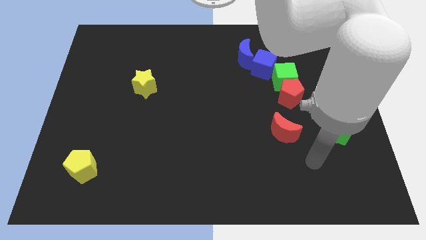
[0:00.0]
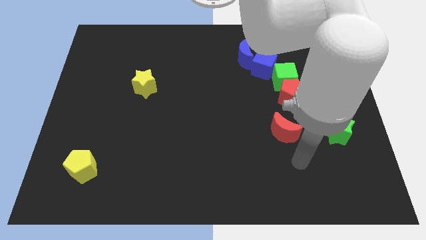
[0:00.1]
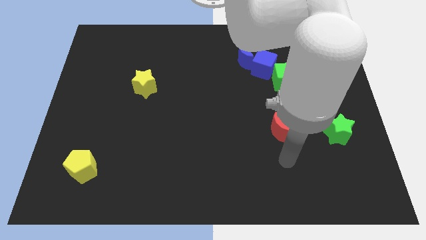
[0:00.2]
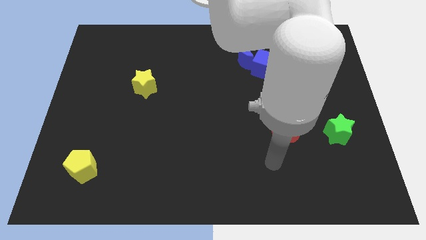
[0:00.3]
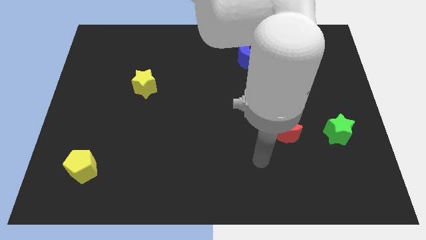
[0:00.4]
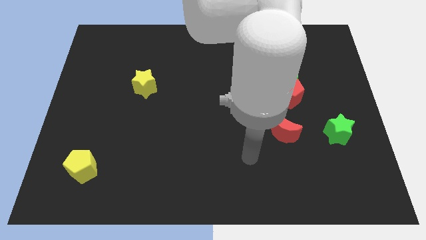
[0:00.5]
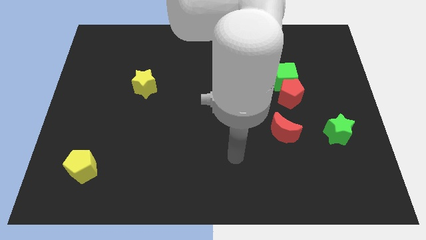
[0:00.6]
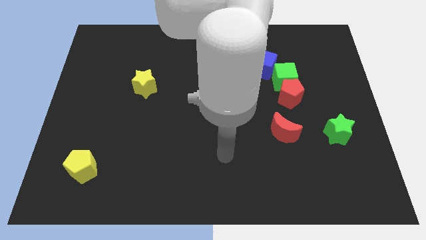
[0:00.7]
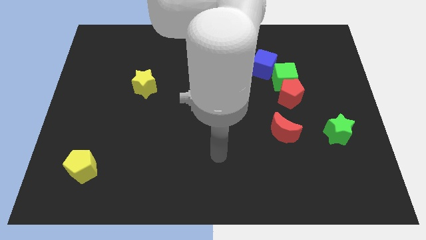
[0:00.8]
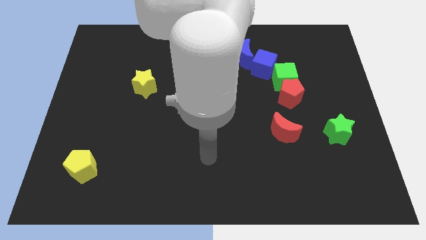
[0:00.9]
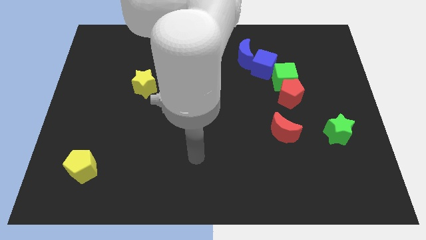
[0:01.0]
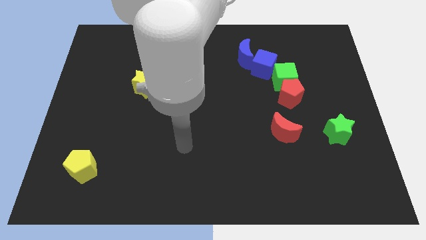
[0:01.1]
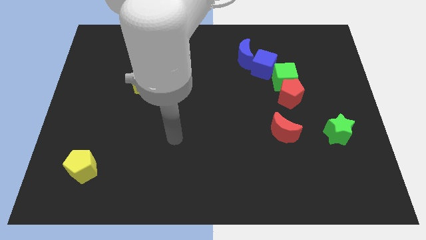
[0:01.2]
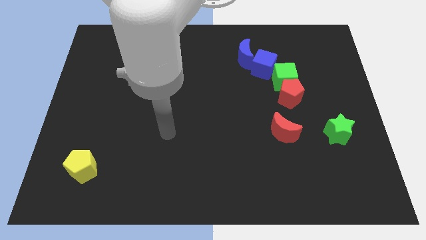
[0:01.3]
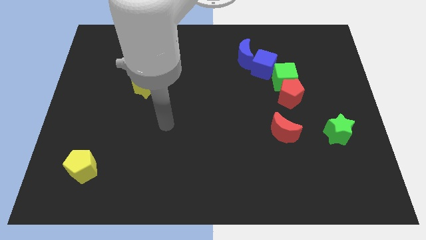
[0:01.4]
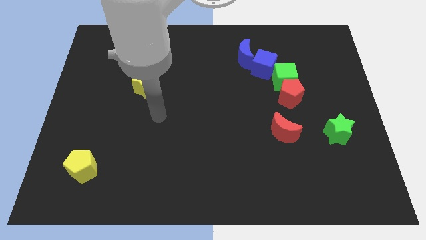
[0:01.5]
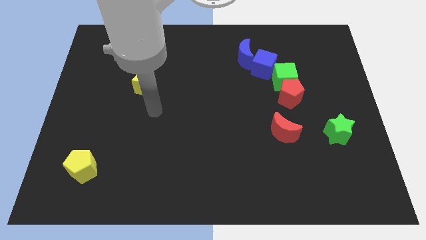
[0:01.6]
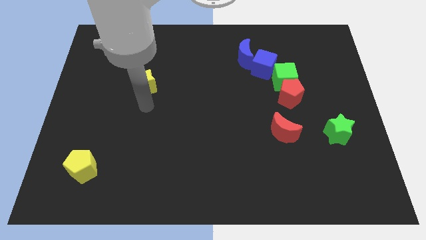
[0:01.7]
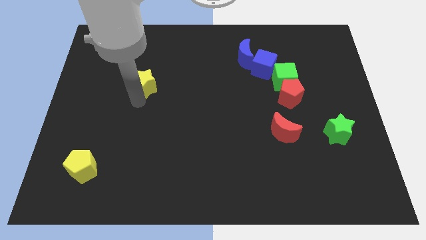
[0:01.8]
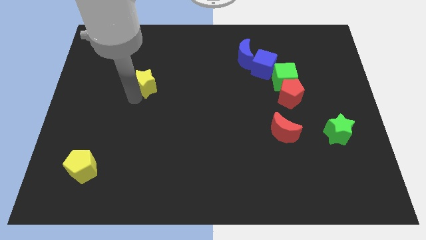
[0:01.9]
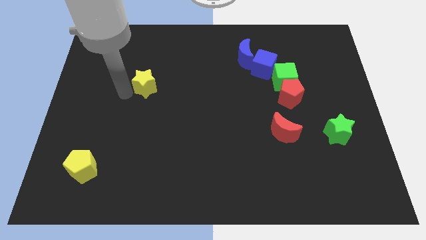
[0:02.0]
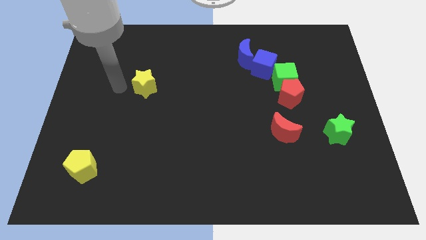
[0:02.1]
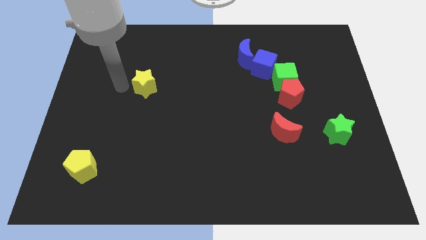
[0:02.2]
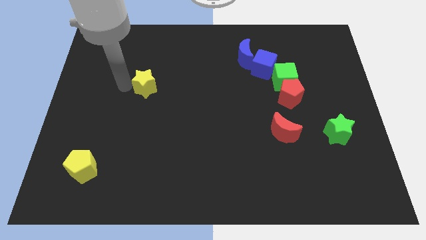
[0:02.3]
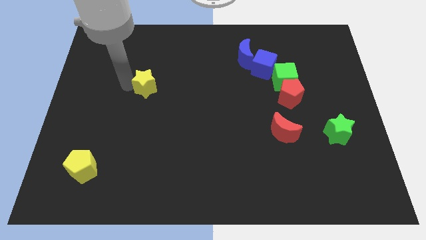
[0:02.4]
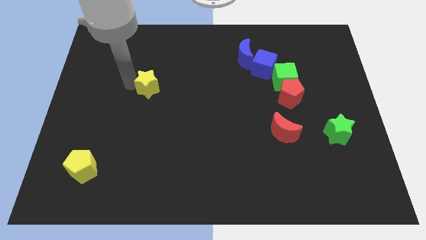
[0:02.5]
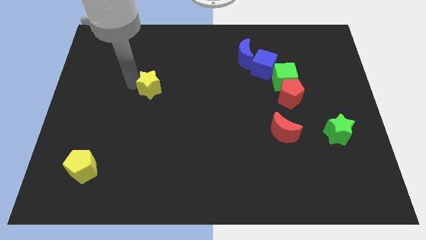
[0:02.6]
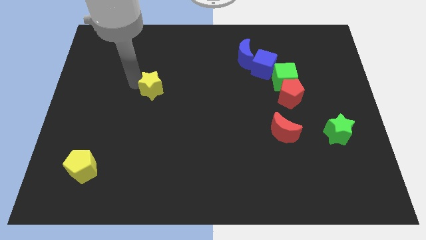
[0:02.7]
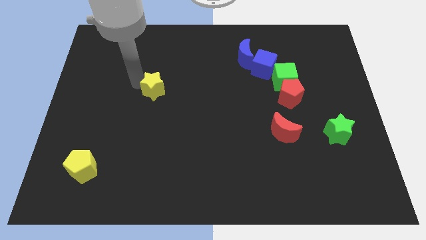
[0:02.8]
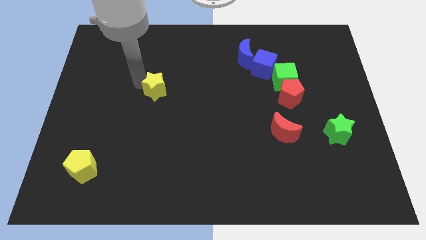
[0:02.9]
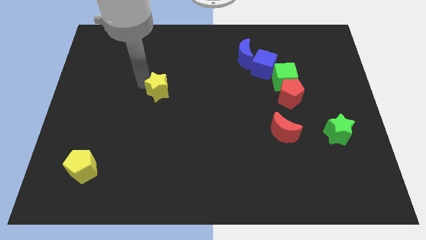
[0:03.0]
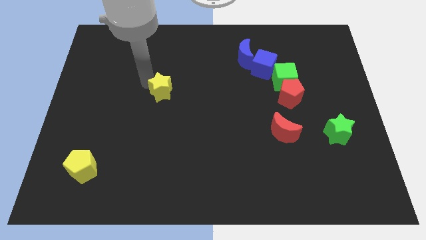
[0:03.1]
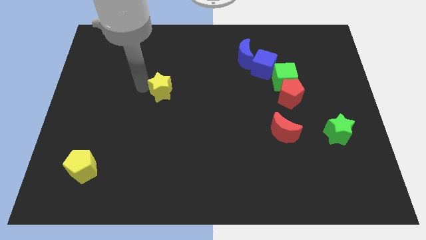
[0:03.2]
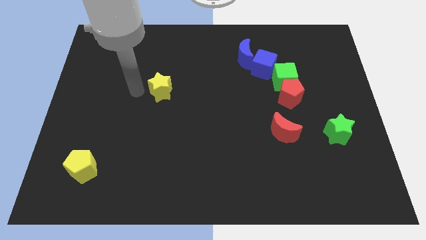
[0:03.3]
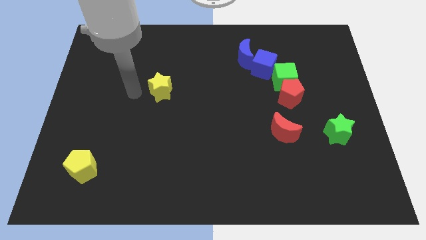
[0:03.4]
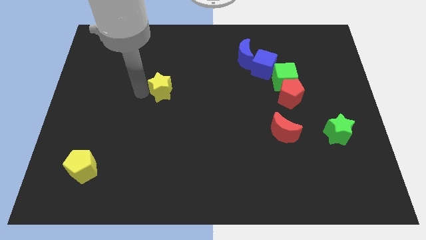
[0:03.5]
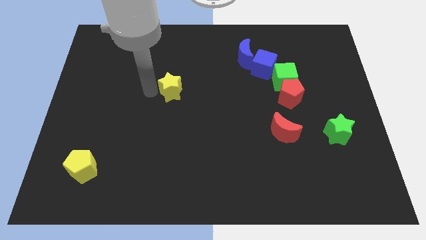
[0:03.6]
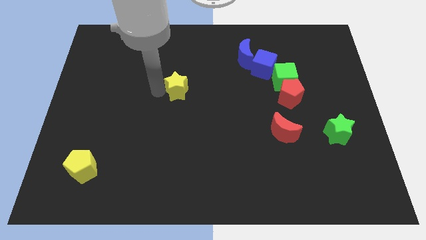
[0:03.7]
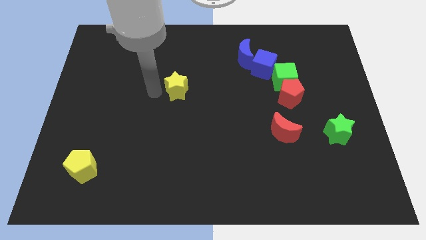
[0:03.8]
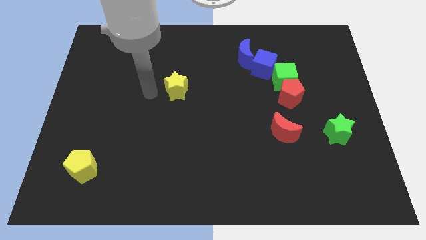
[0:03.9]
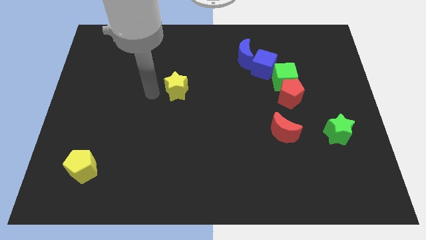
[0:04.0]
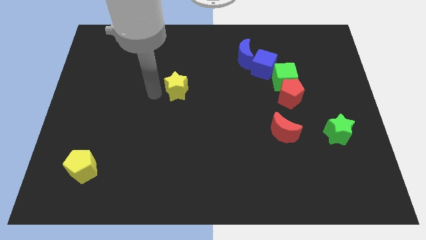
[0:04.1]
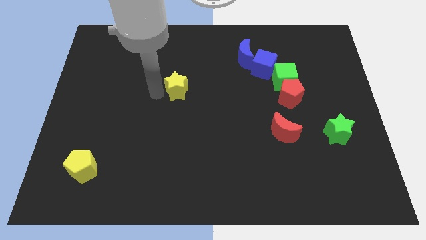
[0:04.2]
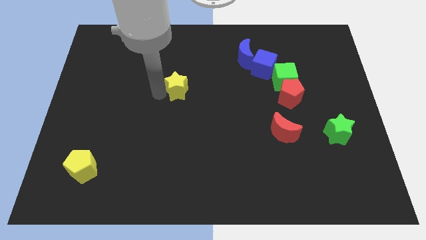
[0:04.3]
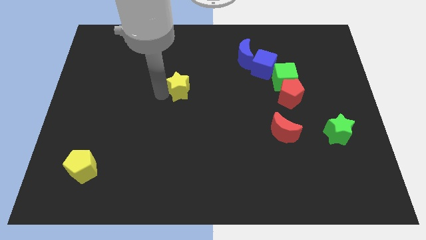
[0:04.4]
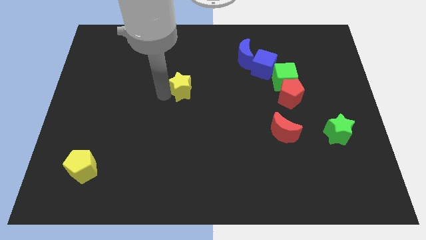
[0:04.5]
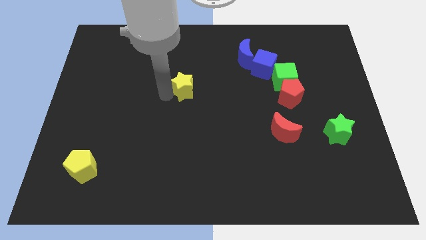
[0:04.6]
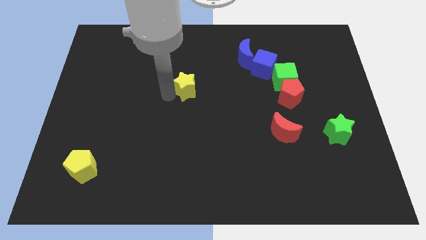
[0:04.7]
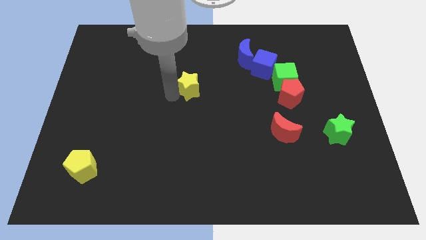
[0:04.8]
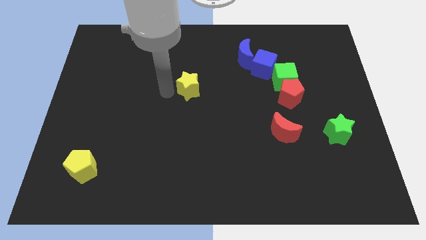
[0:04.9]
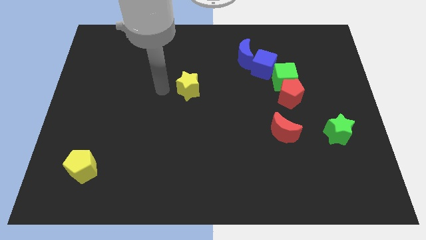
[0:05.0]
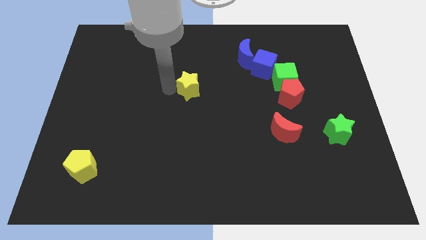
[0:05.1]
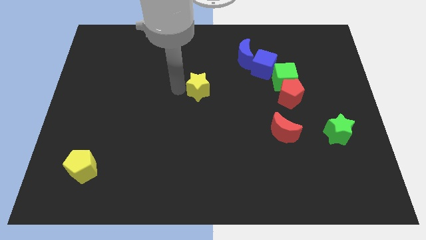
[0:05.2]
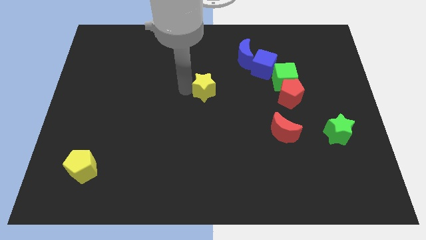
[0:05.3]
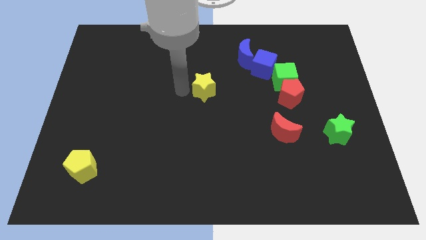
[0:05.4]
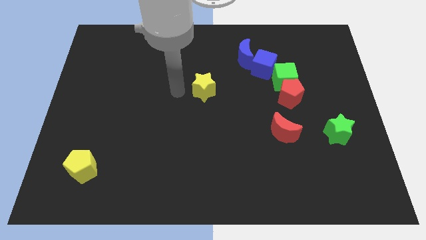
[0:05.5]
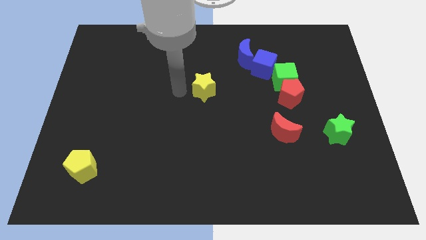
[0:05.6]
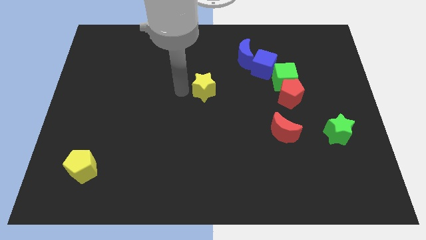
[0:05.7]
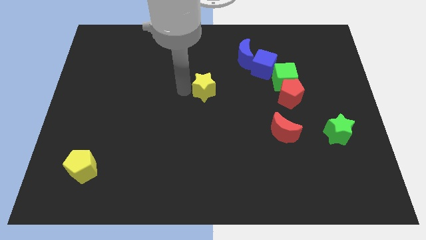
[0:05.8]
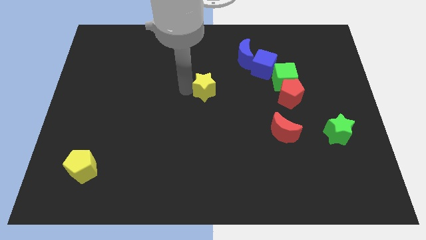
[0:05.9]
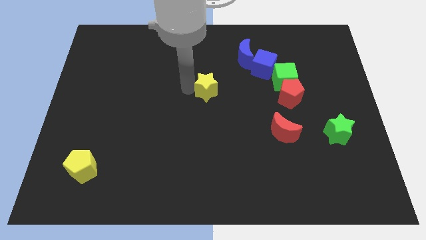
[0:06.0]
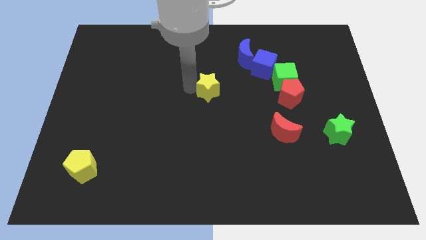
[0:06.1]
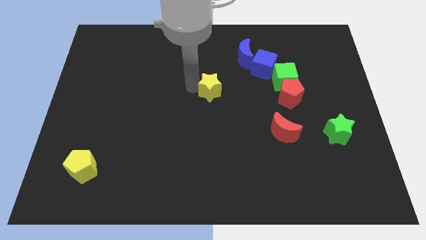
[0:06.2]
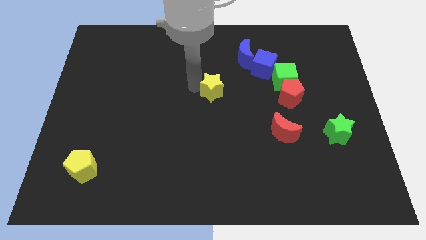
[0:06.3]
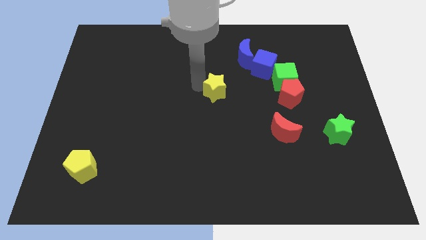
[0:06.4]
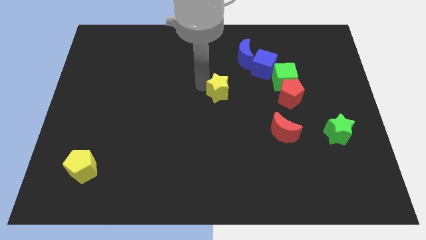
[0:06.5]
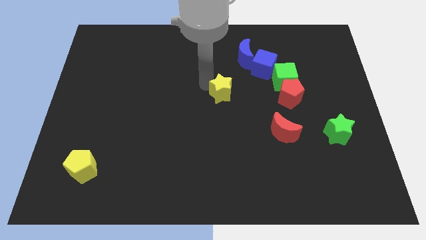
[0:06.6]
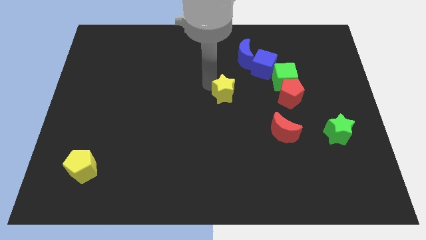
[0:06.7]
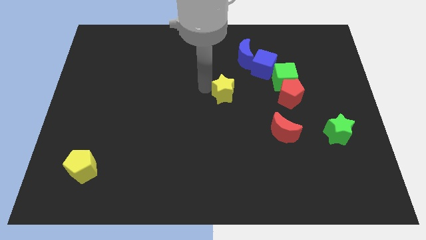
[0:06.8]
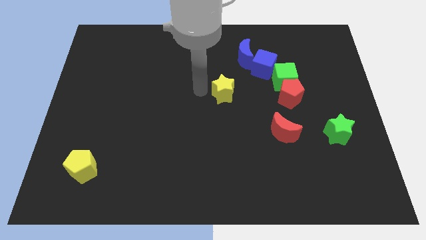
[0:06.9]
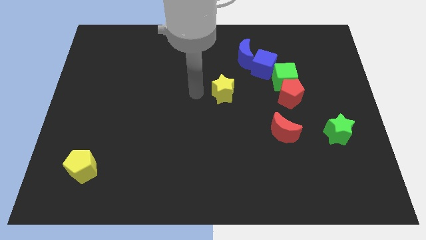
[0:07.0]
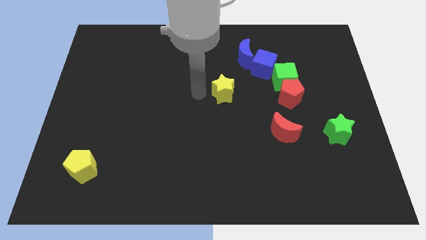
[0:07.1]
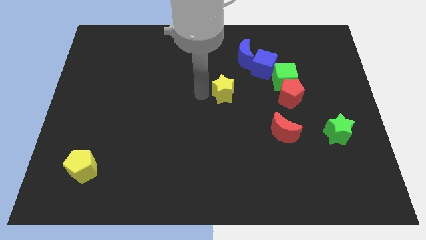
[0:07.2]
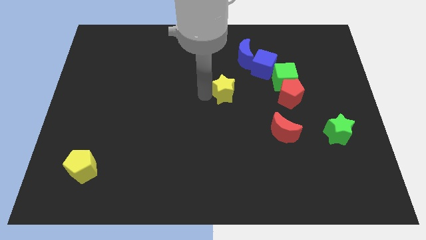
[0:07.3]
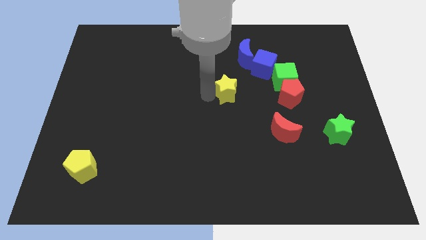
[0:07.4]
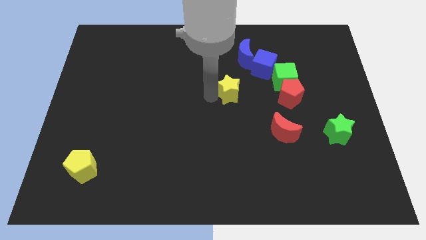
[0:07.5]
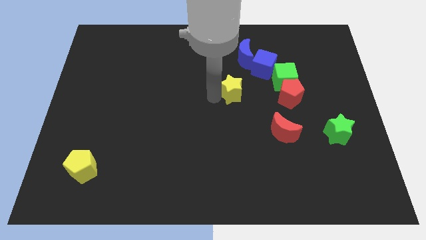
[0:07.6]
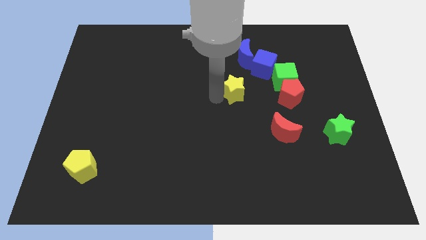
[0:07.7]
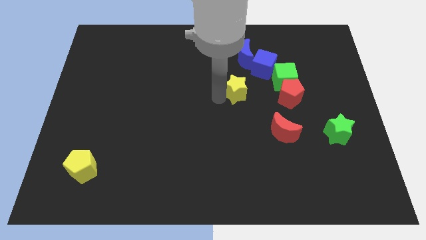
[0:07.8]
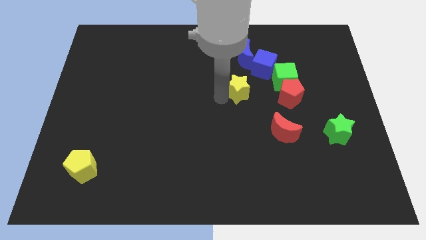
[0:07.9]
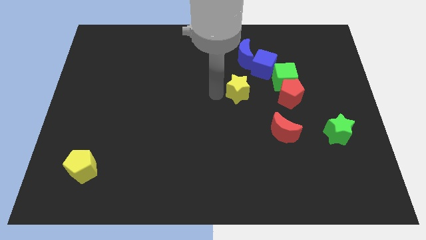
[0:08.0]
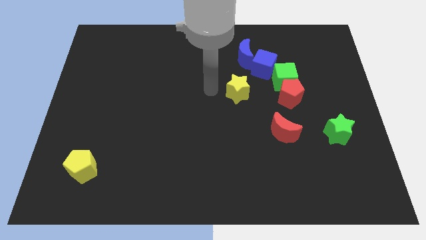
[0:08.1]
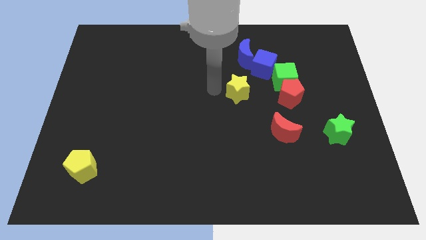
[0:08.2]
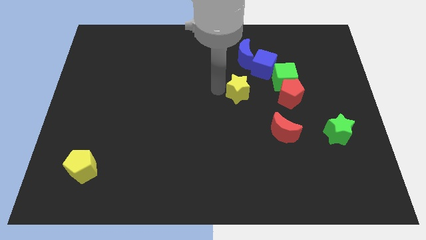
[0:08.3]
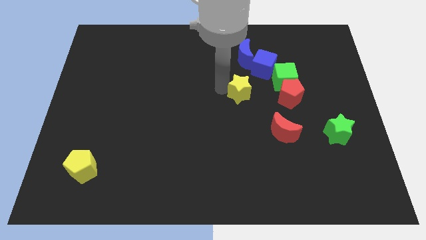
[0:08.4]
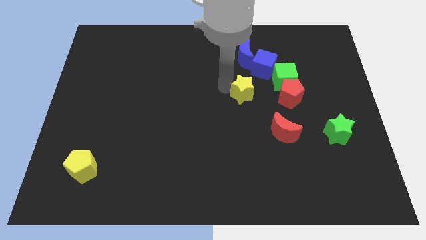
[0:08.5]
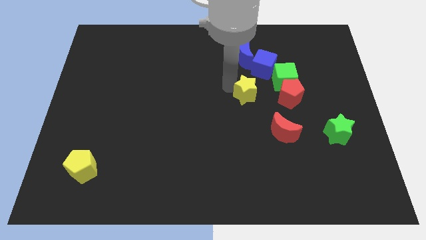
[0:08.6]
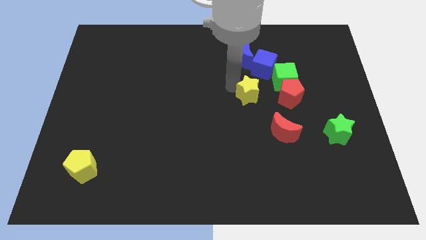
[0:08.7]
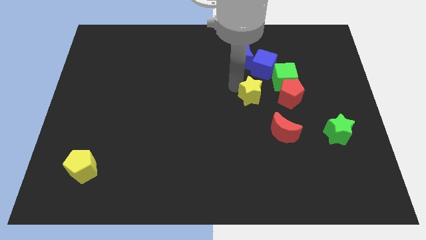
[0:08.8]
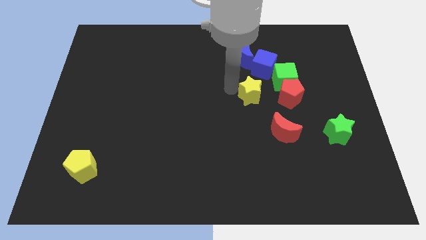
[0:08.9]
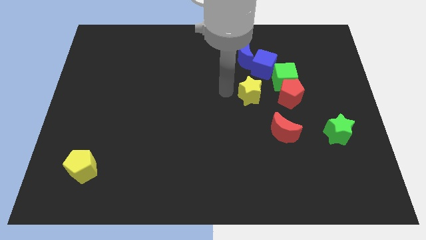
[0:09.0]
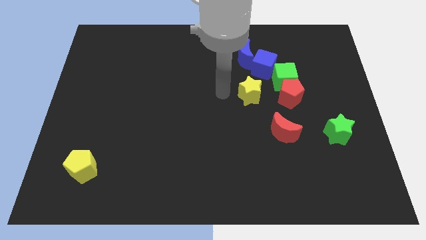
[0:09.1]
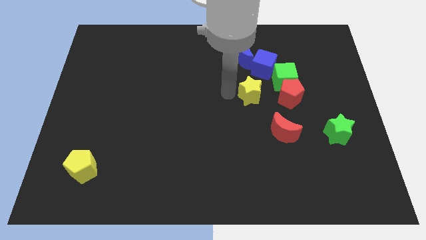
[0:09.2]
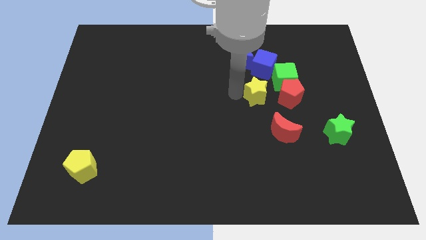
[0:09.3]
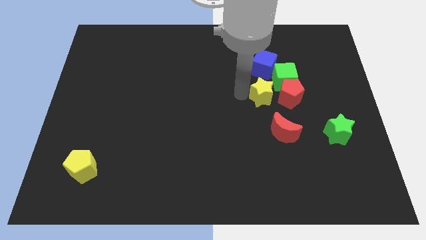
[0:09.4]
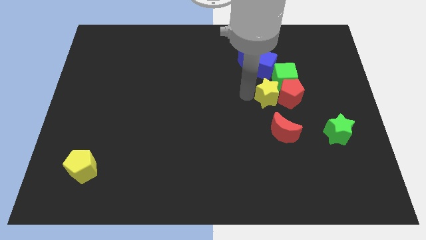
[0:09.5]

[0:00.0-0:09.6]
put the yellow star to the red pentagon
